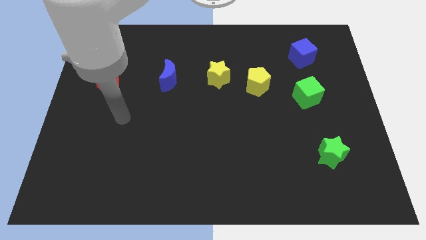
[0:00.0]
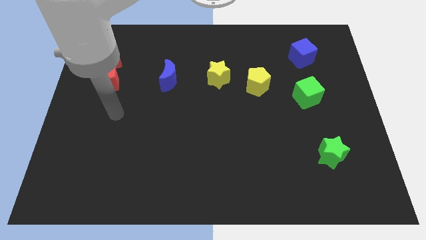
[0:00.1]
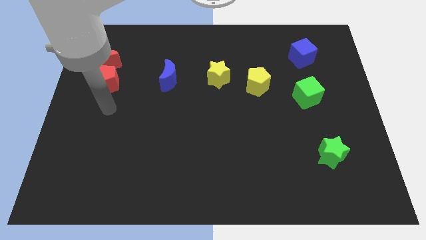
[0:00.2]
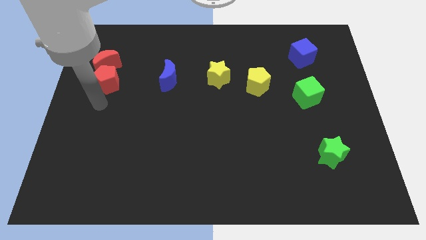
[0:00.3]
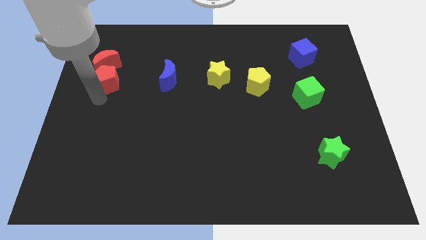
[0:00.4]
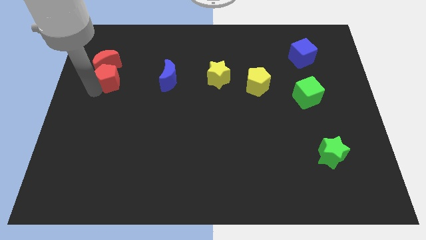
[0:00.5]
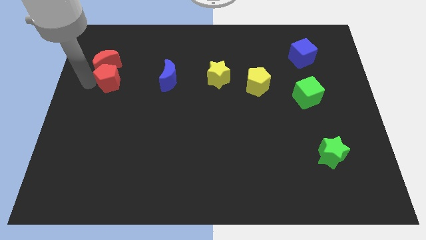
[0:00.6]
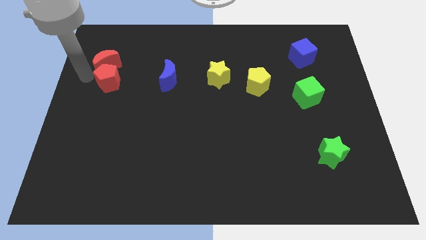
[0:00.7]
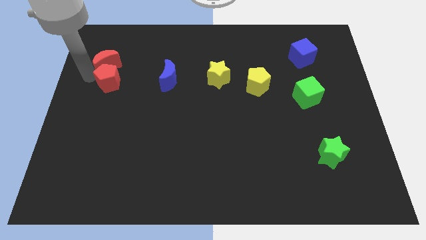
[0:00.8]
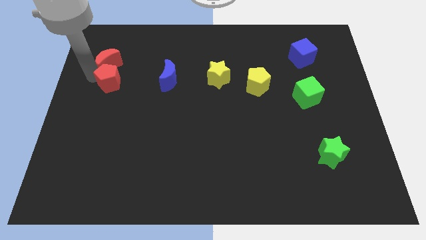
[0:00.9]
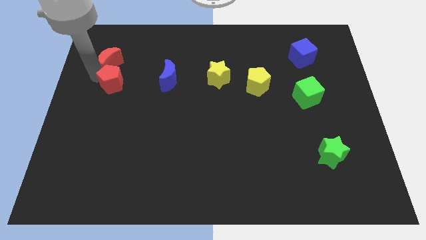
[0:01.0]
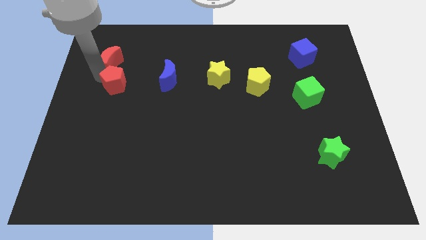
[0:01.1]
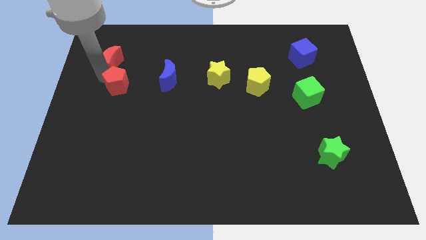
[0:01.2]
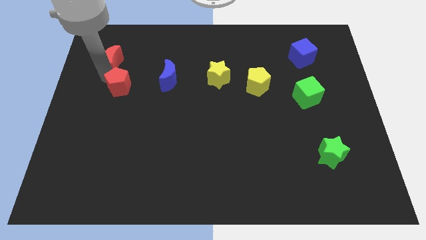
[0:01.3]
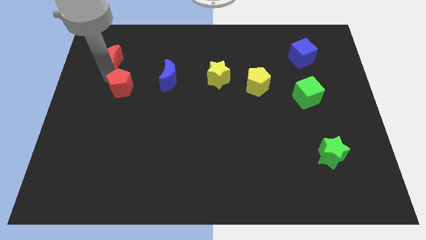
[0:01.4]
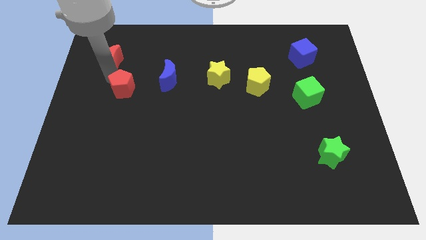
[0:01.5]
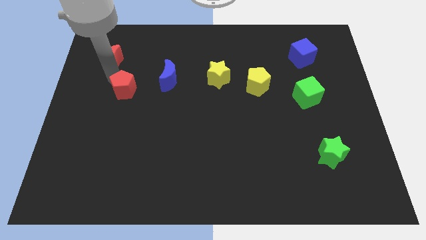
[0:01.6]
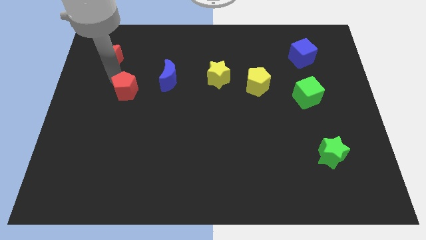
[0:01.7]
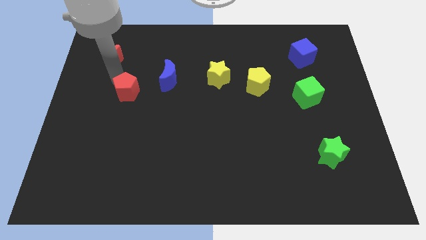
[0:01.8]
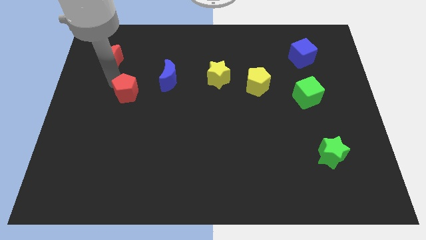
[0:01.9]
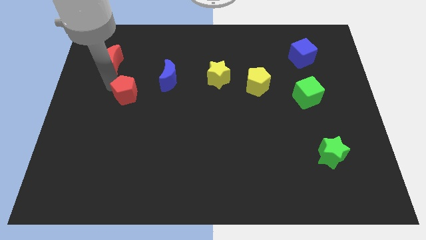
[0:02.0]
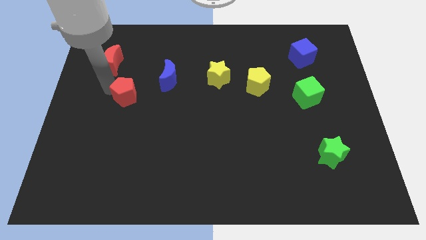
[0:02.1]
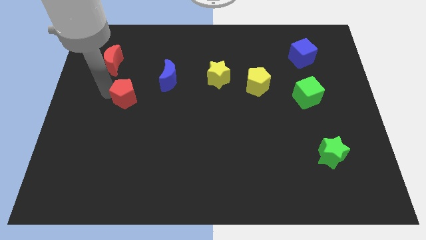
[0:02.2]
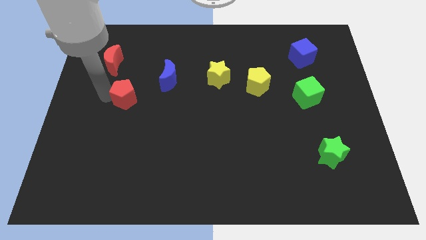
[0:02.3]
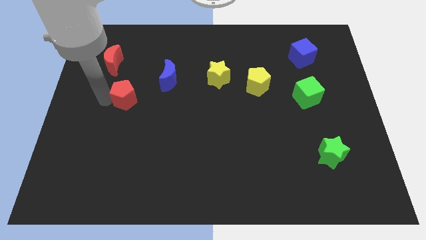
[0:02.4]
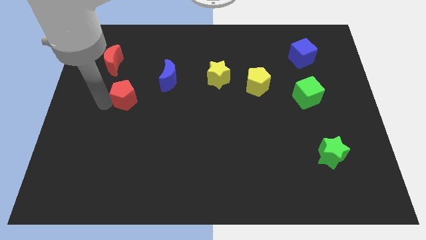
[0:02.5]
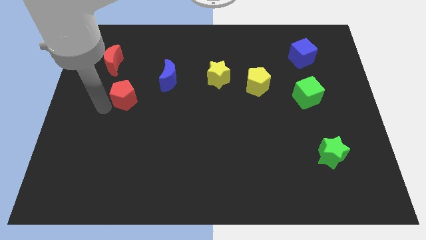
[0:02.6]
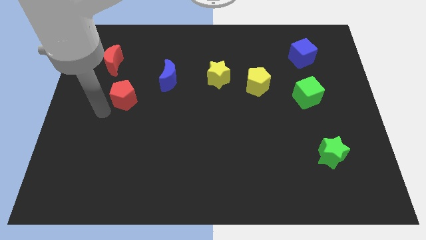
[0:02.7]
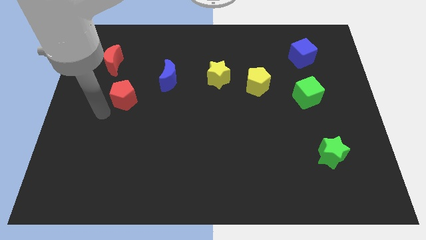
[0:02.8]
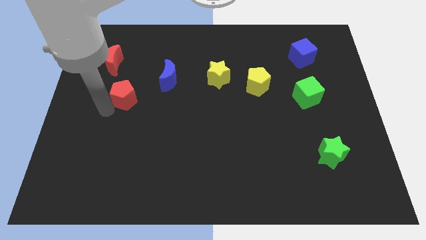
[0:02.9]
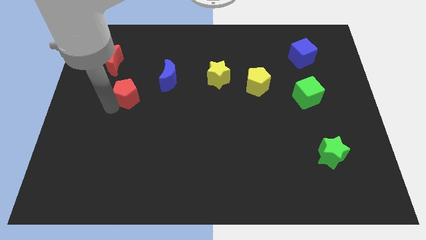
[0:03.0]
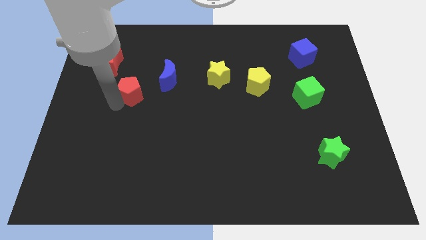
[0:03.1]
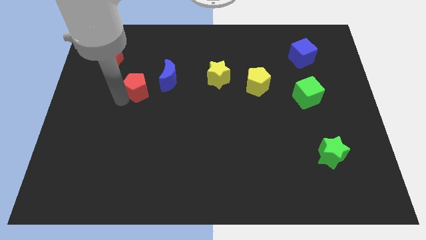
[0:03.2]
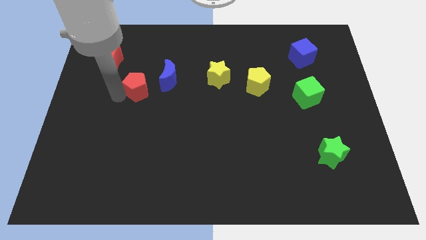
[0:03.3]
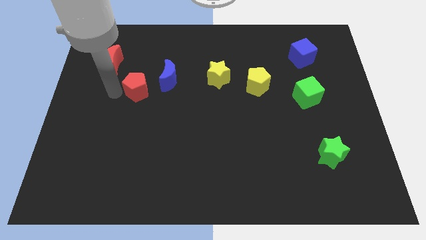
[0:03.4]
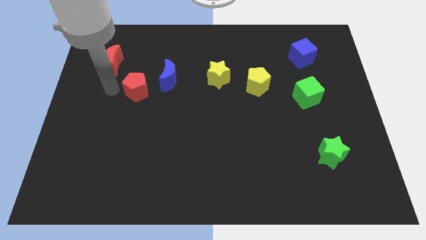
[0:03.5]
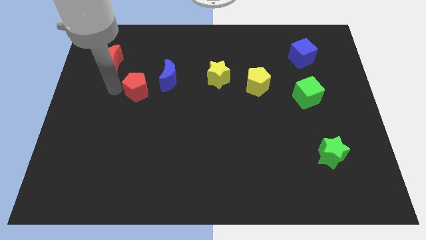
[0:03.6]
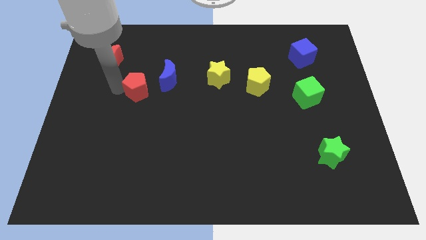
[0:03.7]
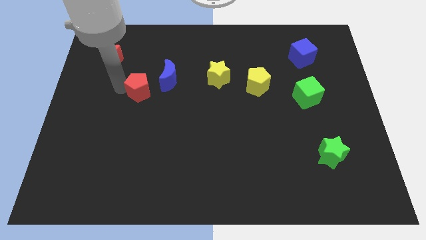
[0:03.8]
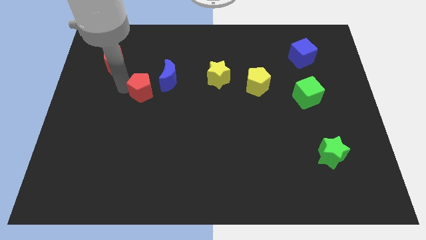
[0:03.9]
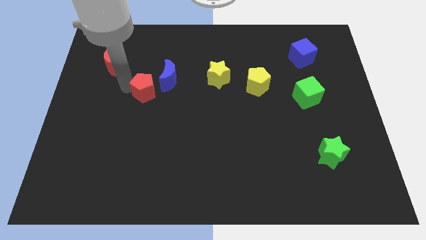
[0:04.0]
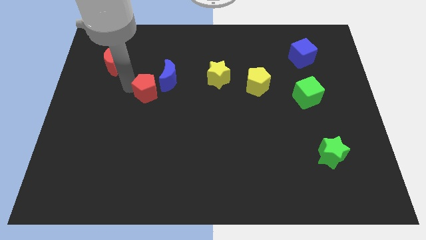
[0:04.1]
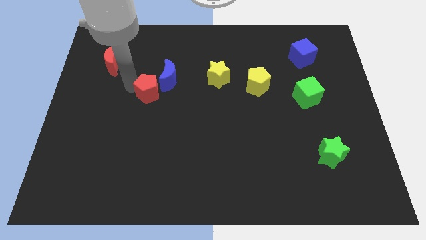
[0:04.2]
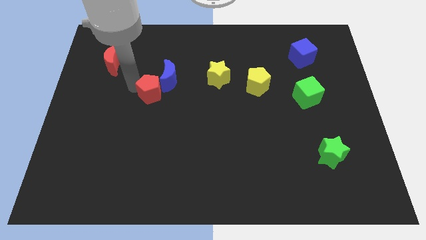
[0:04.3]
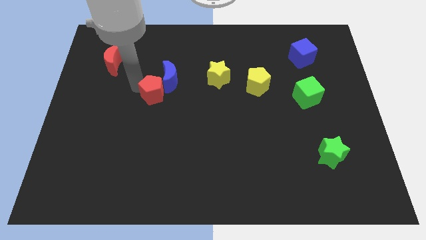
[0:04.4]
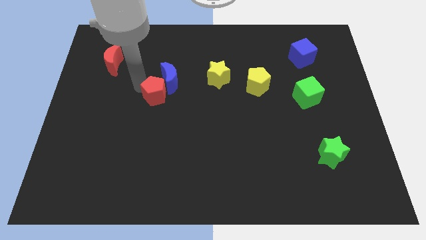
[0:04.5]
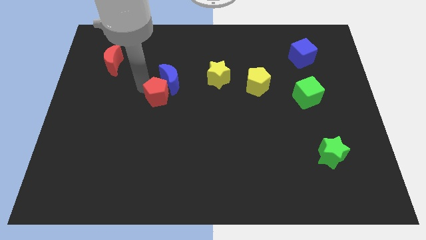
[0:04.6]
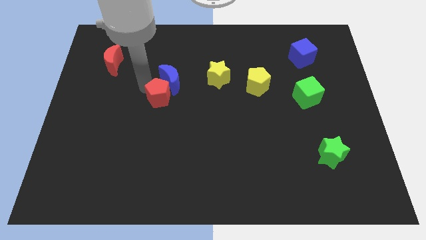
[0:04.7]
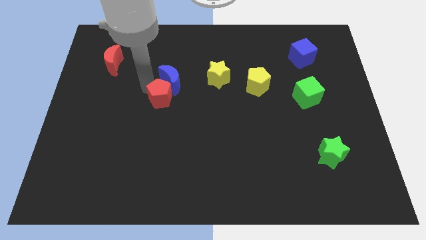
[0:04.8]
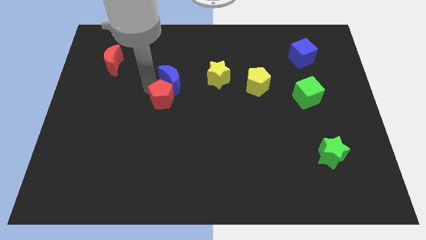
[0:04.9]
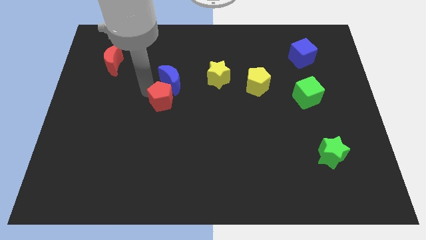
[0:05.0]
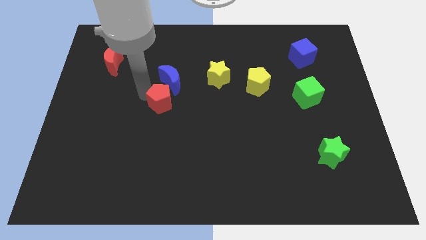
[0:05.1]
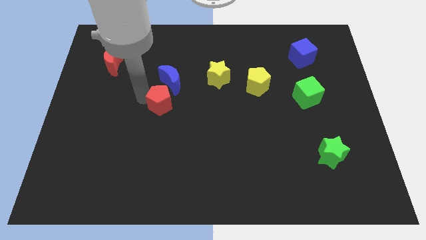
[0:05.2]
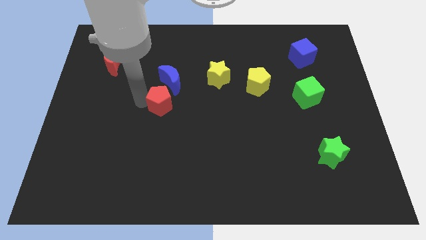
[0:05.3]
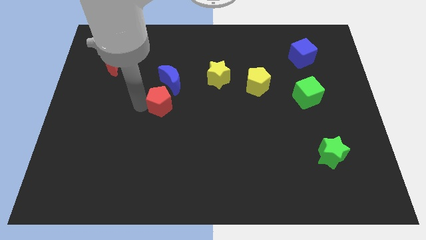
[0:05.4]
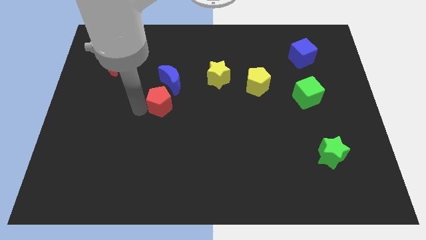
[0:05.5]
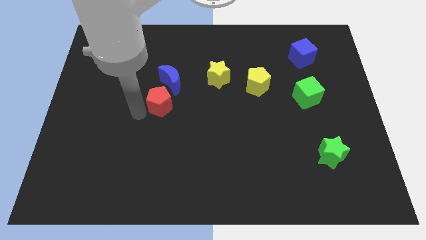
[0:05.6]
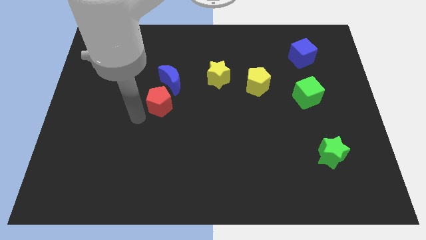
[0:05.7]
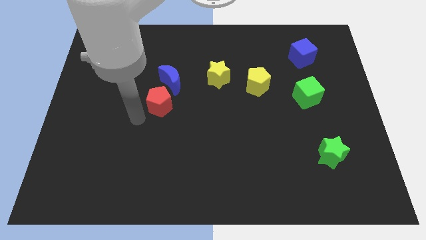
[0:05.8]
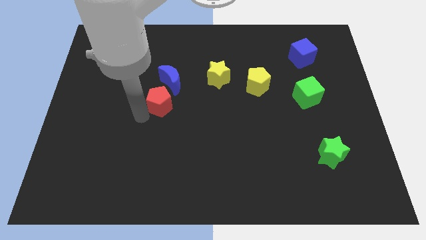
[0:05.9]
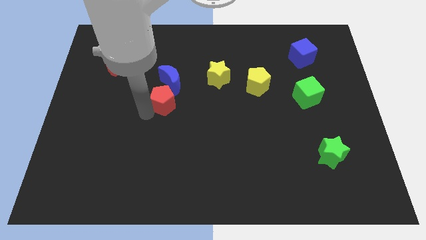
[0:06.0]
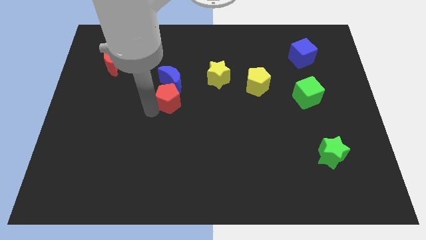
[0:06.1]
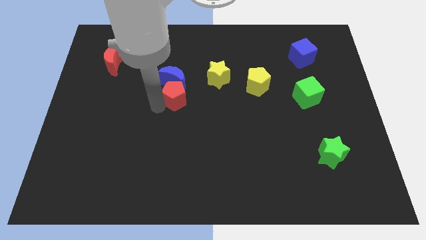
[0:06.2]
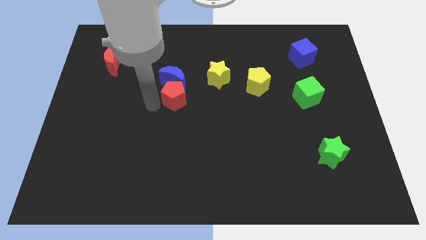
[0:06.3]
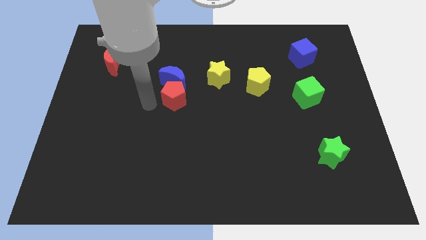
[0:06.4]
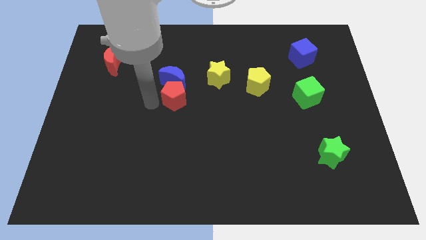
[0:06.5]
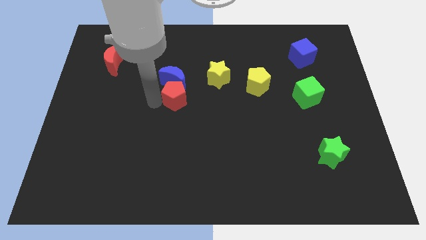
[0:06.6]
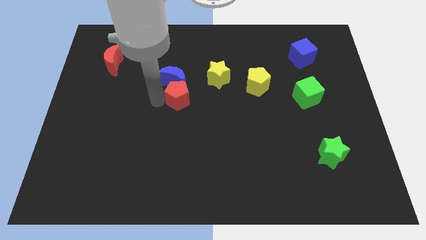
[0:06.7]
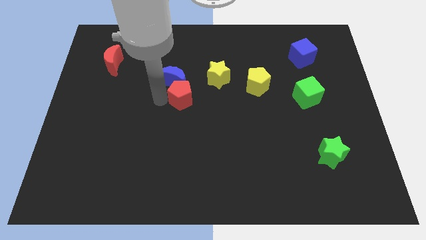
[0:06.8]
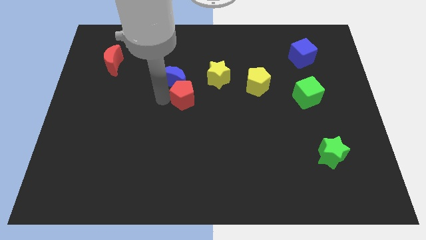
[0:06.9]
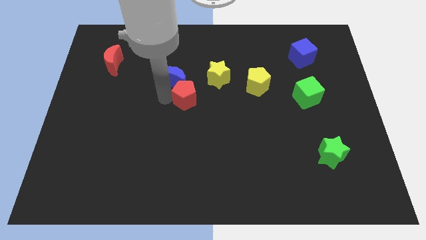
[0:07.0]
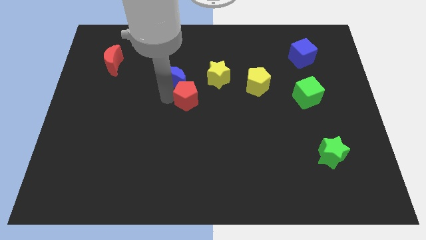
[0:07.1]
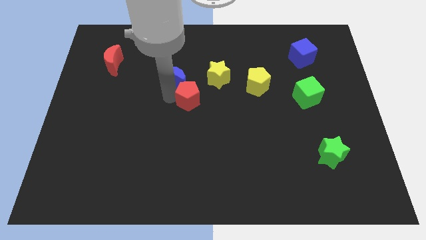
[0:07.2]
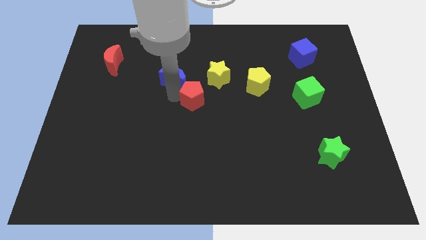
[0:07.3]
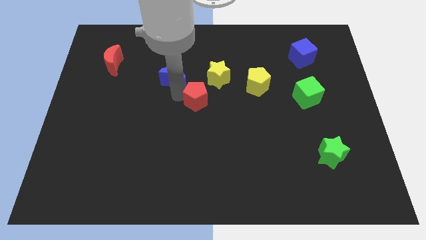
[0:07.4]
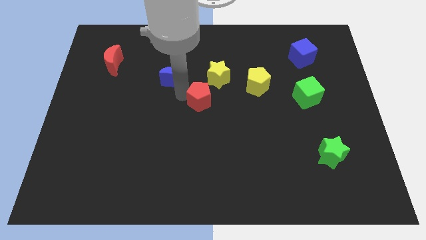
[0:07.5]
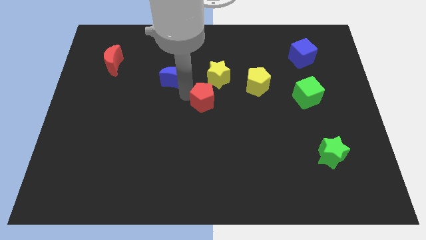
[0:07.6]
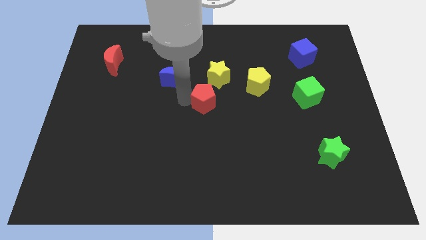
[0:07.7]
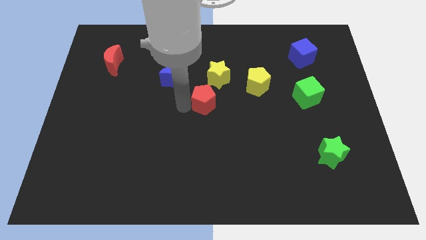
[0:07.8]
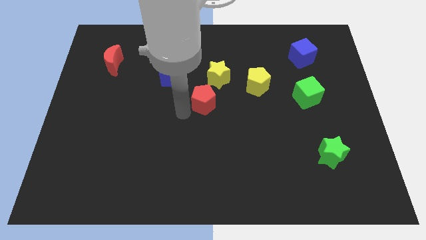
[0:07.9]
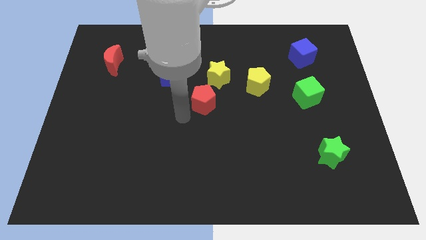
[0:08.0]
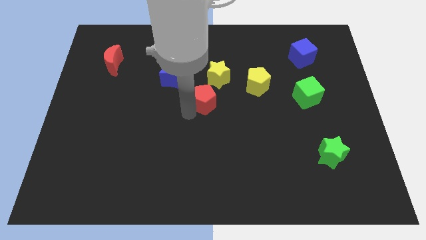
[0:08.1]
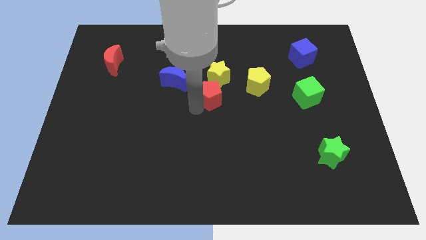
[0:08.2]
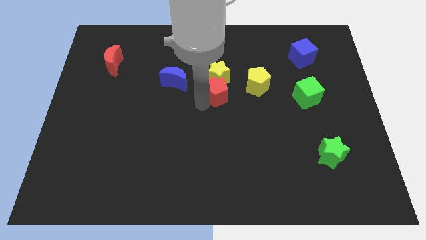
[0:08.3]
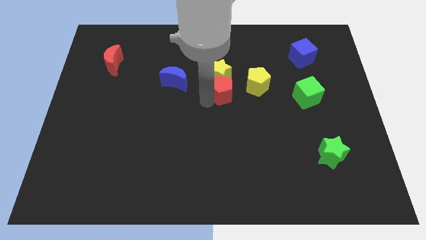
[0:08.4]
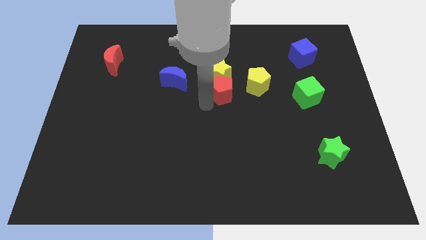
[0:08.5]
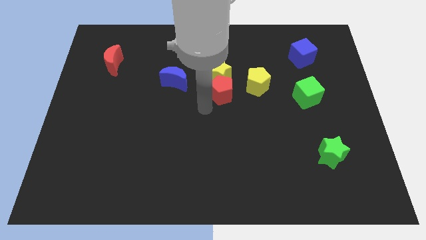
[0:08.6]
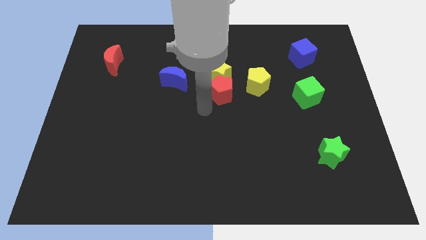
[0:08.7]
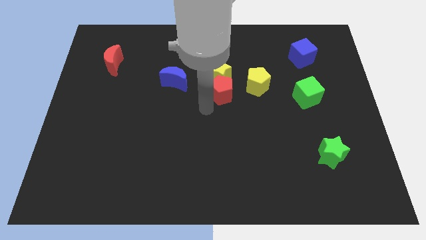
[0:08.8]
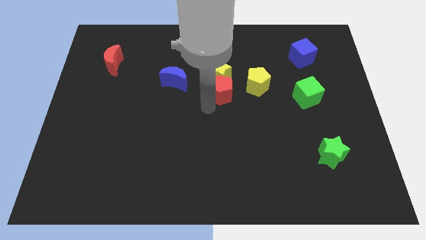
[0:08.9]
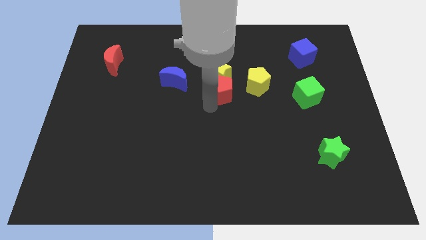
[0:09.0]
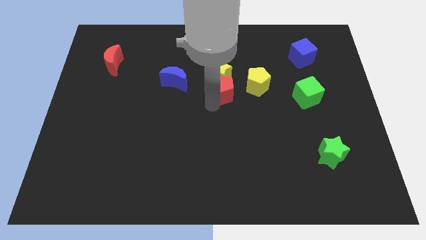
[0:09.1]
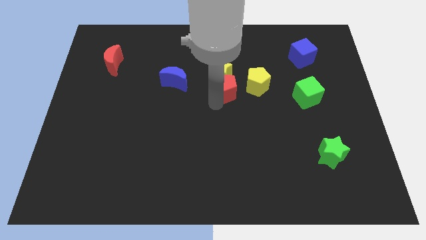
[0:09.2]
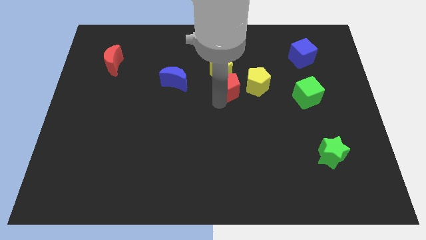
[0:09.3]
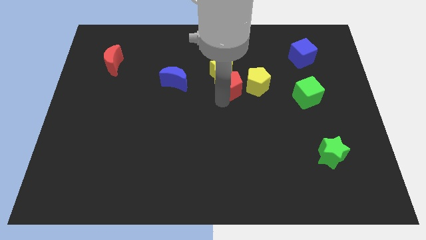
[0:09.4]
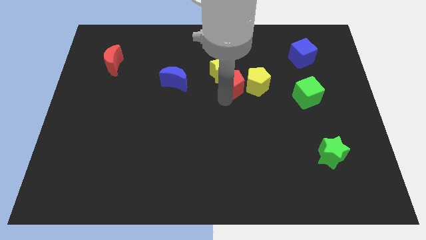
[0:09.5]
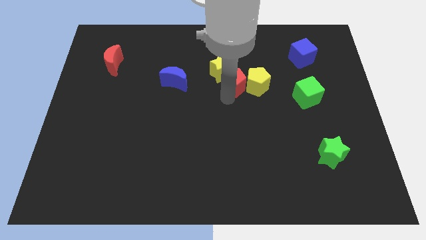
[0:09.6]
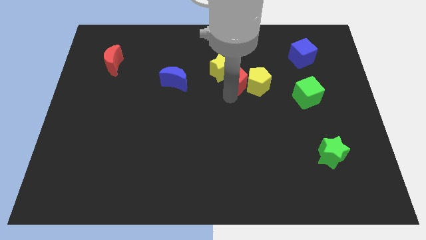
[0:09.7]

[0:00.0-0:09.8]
put the red pentagon to the right of the yellow star
